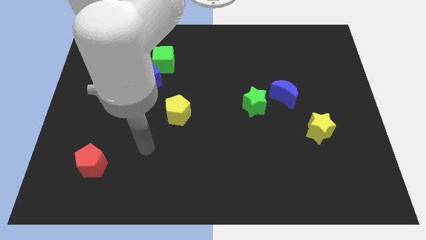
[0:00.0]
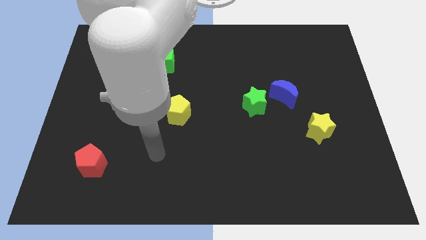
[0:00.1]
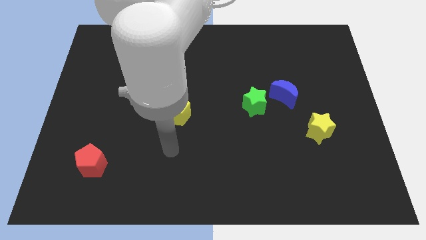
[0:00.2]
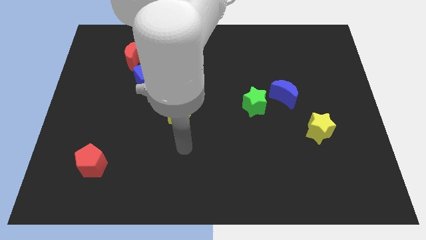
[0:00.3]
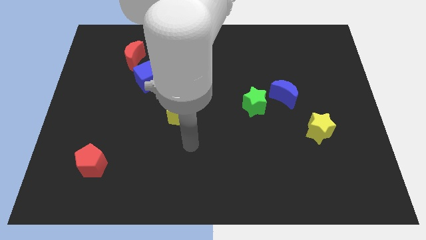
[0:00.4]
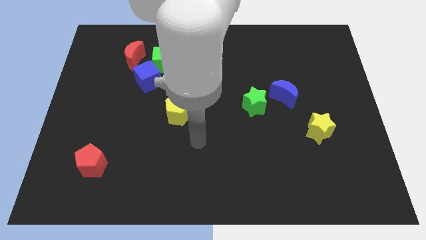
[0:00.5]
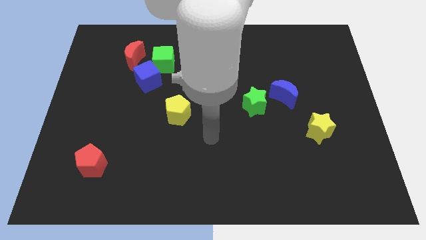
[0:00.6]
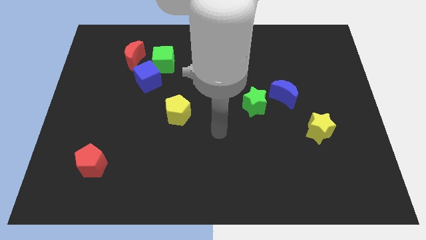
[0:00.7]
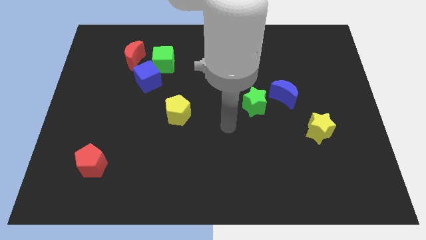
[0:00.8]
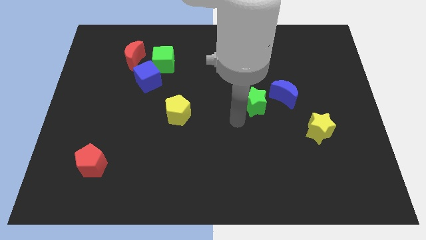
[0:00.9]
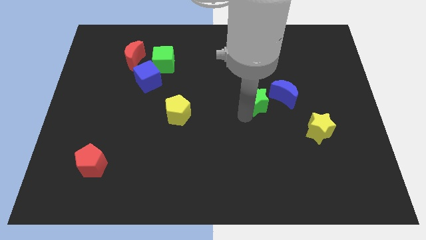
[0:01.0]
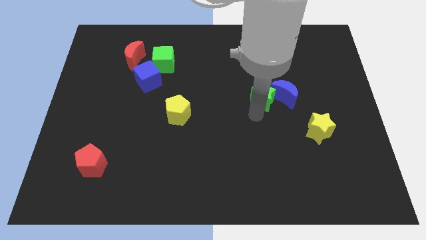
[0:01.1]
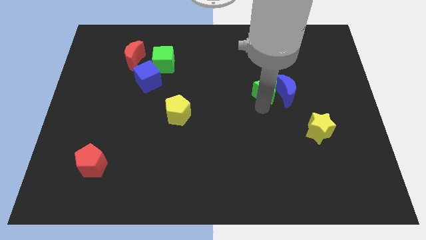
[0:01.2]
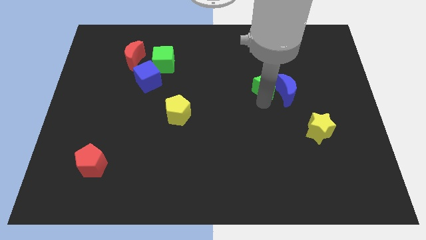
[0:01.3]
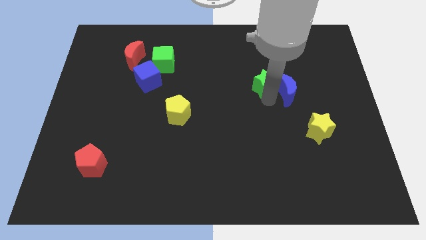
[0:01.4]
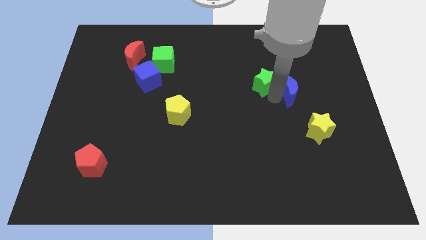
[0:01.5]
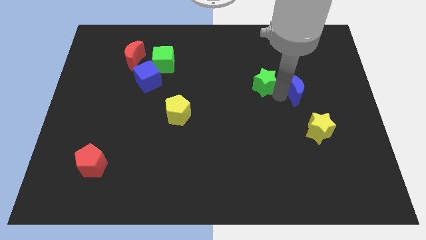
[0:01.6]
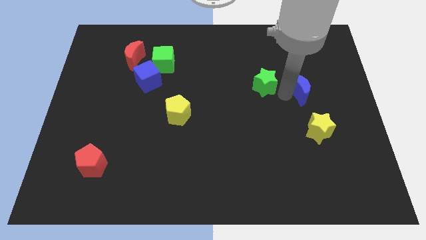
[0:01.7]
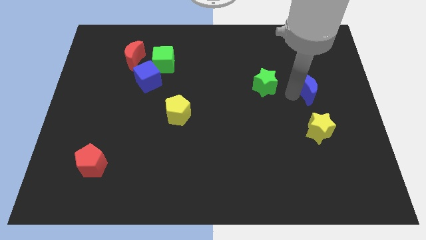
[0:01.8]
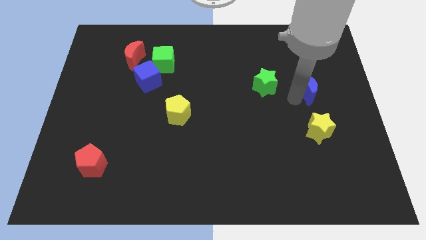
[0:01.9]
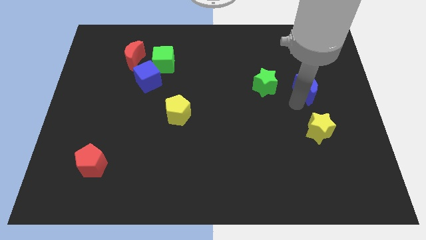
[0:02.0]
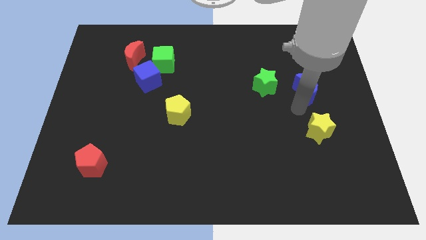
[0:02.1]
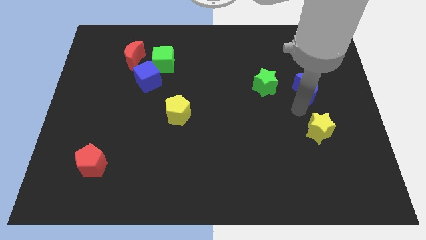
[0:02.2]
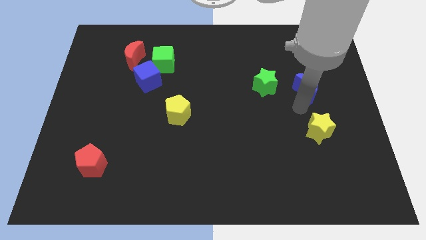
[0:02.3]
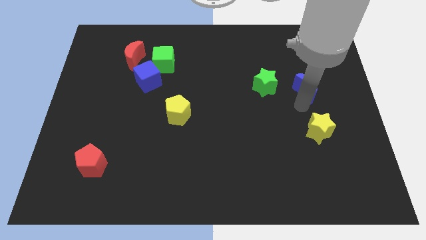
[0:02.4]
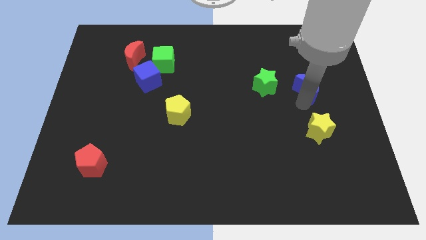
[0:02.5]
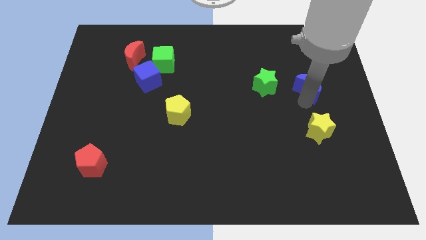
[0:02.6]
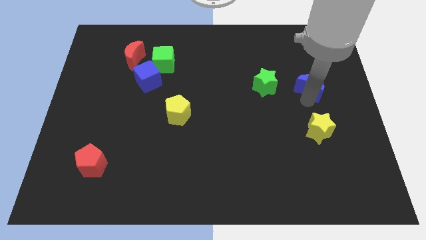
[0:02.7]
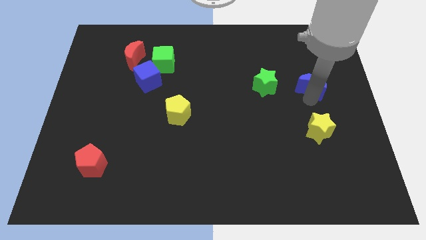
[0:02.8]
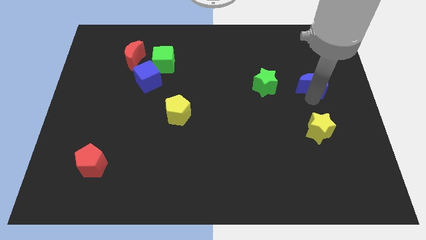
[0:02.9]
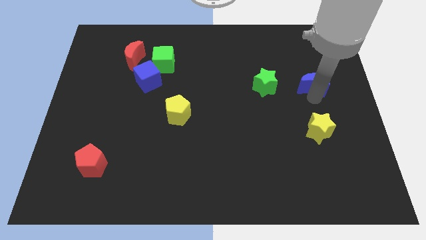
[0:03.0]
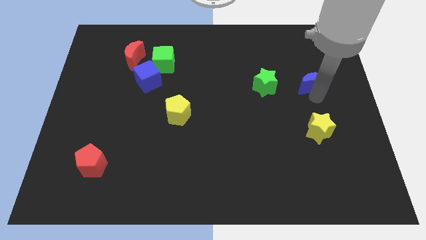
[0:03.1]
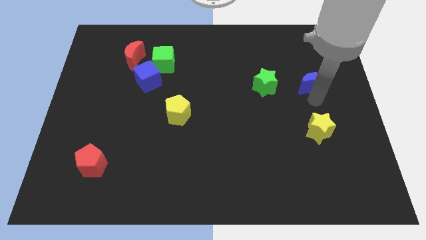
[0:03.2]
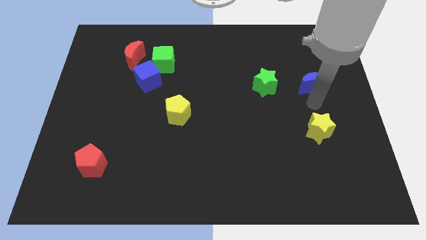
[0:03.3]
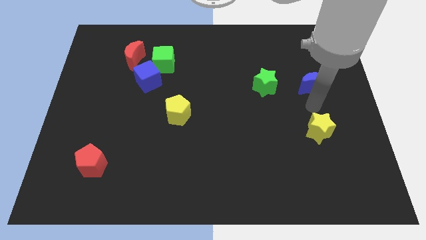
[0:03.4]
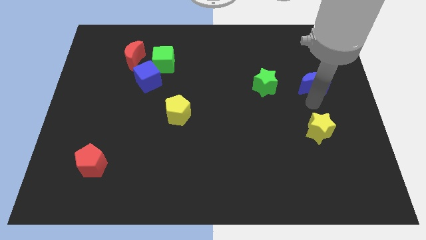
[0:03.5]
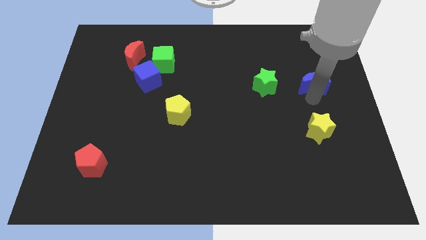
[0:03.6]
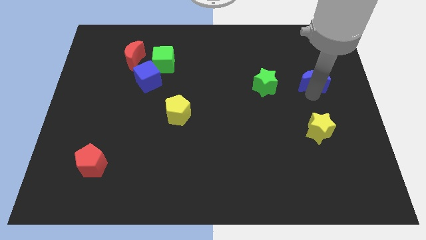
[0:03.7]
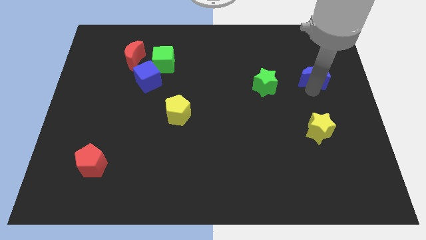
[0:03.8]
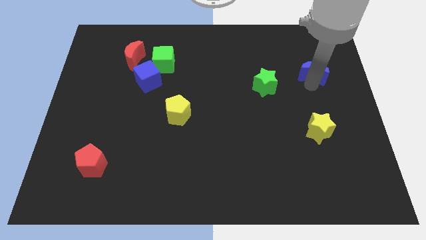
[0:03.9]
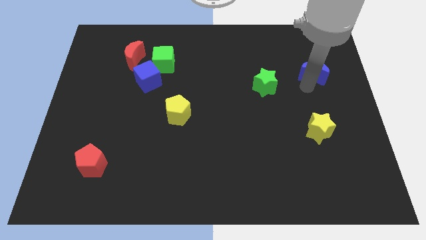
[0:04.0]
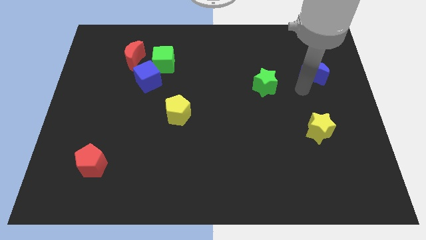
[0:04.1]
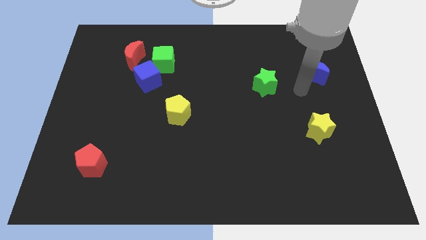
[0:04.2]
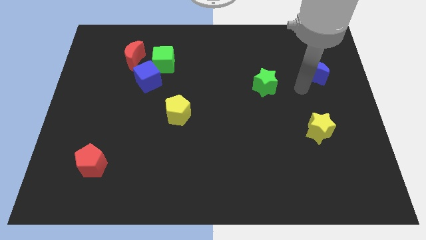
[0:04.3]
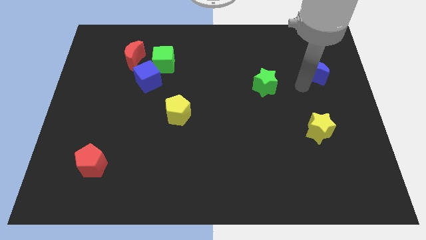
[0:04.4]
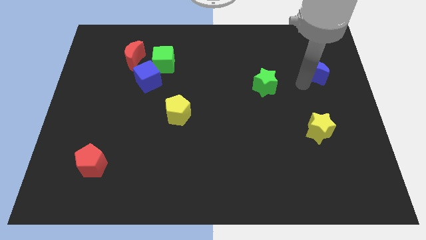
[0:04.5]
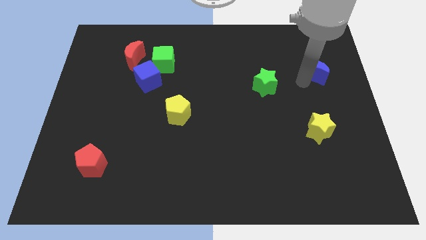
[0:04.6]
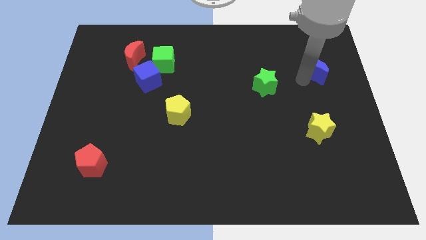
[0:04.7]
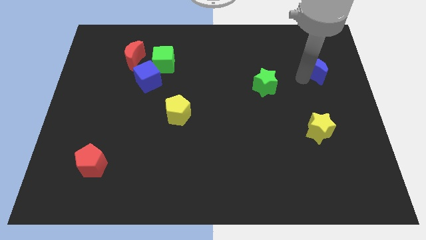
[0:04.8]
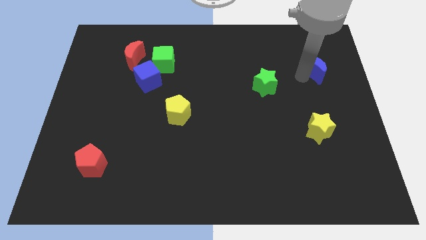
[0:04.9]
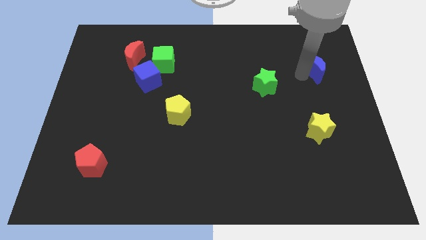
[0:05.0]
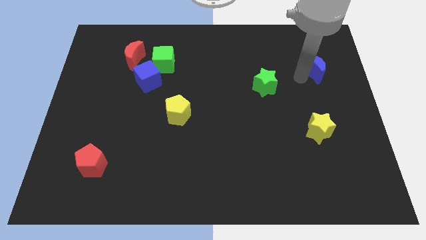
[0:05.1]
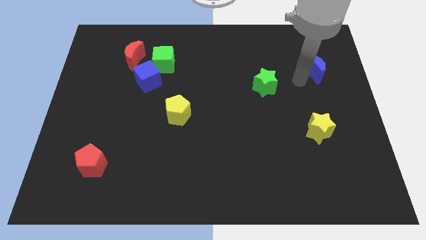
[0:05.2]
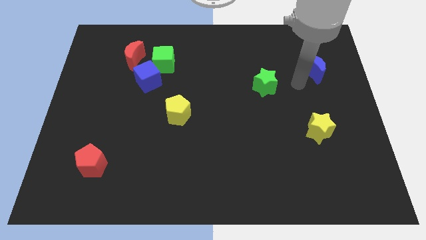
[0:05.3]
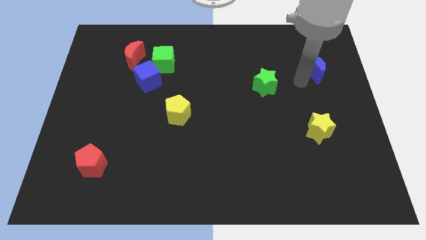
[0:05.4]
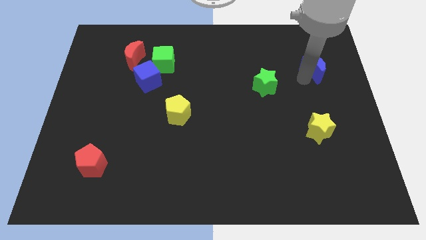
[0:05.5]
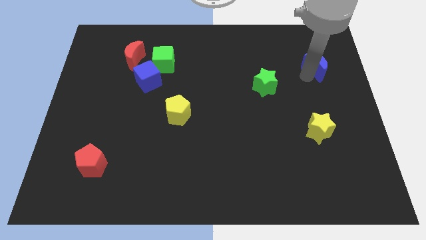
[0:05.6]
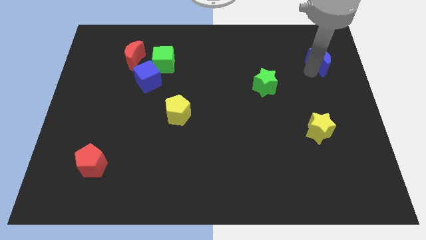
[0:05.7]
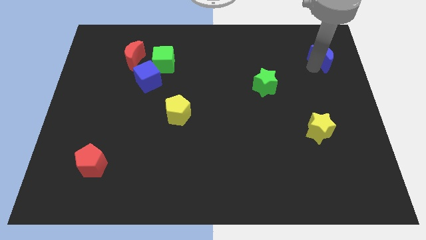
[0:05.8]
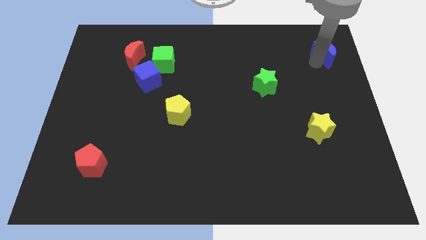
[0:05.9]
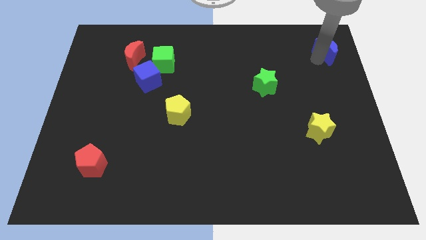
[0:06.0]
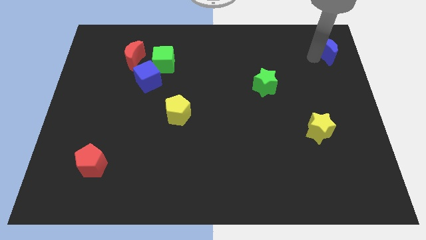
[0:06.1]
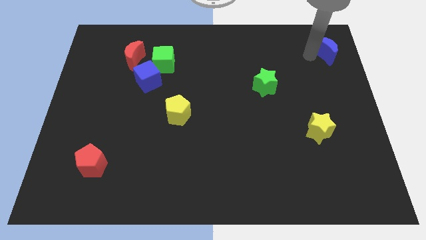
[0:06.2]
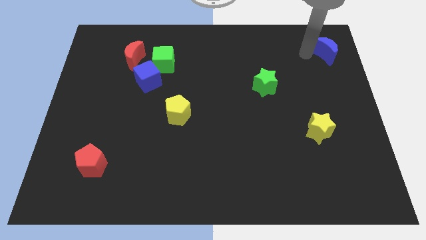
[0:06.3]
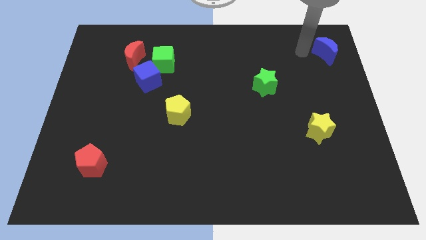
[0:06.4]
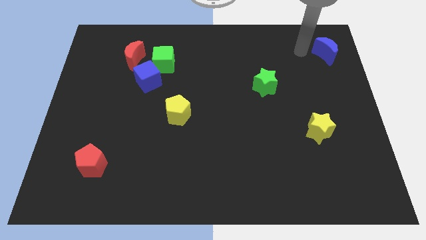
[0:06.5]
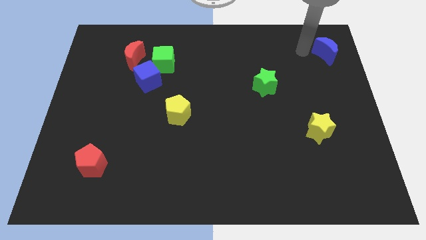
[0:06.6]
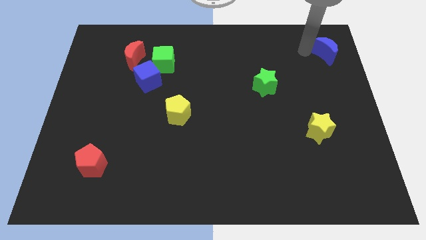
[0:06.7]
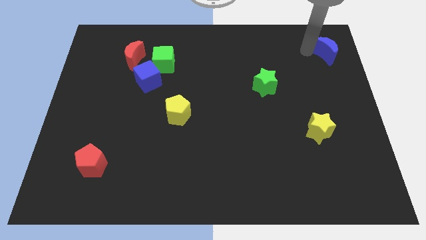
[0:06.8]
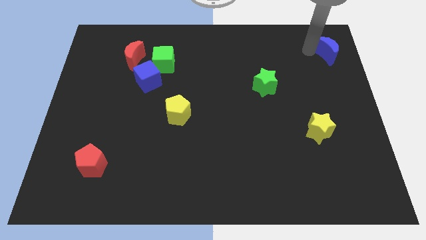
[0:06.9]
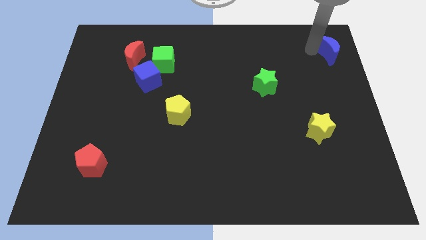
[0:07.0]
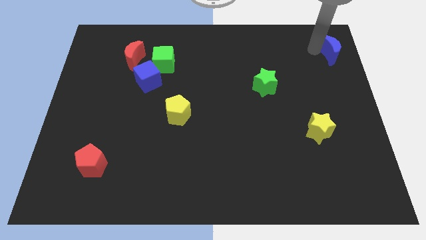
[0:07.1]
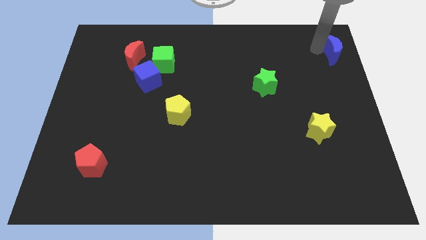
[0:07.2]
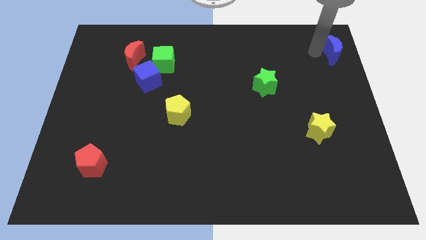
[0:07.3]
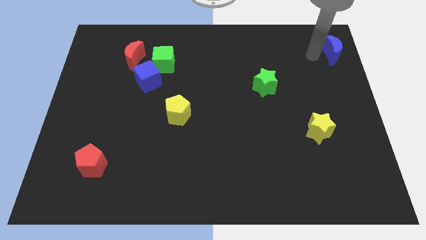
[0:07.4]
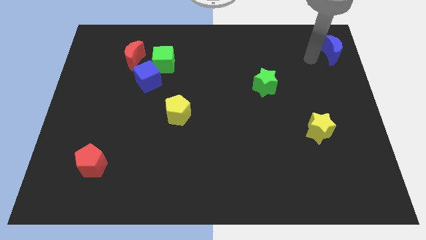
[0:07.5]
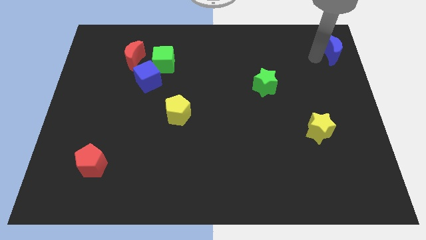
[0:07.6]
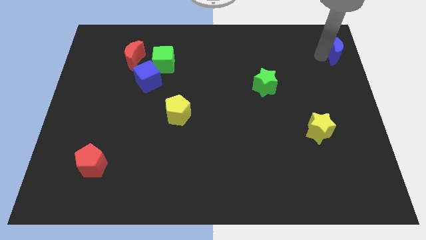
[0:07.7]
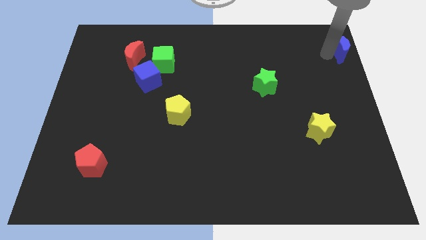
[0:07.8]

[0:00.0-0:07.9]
put the blue moon to the top right corner
